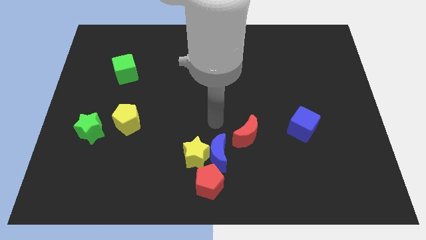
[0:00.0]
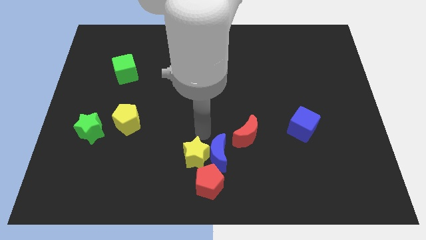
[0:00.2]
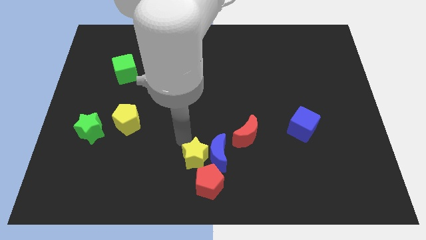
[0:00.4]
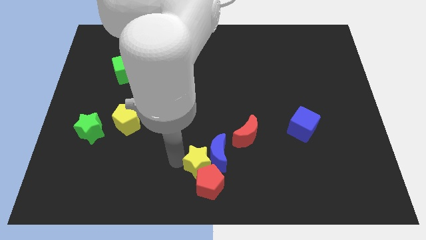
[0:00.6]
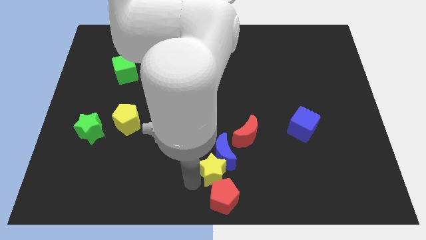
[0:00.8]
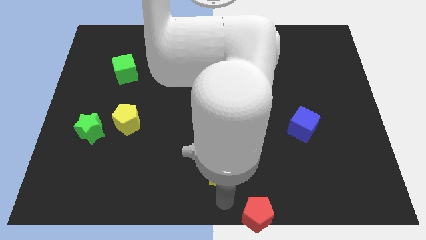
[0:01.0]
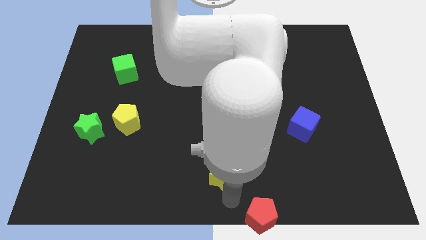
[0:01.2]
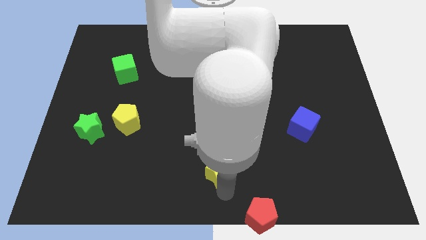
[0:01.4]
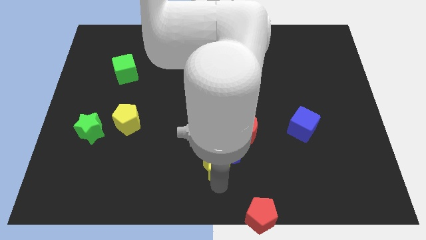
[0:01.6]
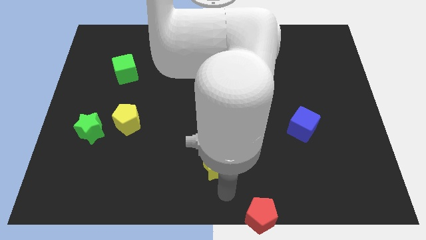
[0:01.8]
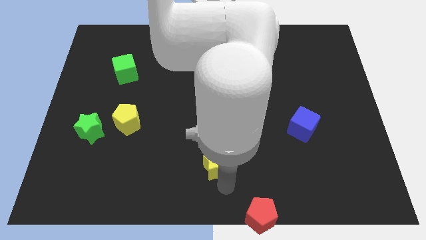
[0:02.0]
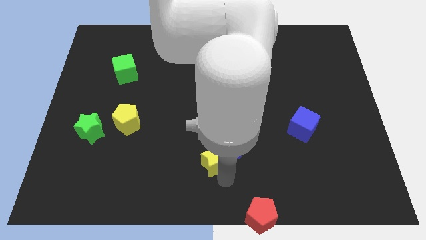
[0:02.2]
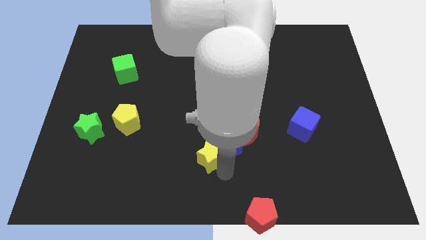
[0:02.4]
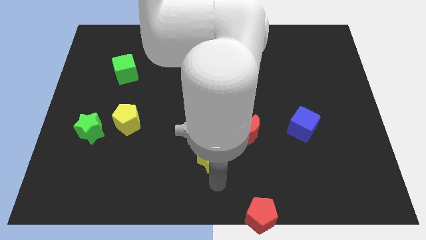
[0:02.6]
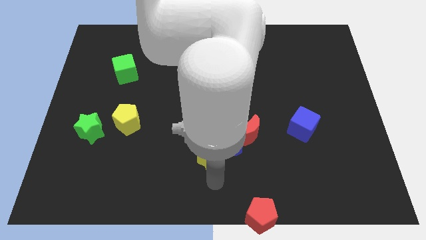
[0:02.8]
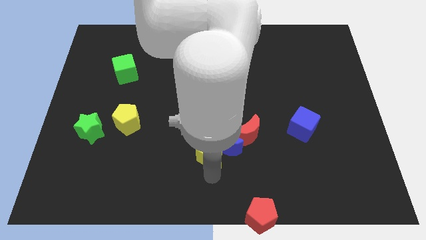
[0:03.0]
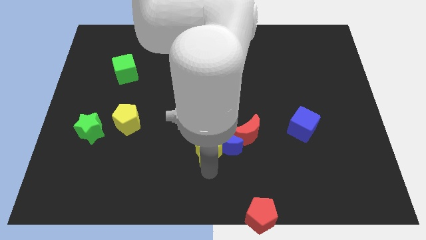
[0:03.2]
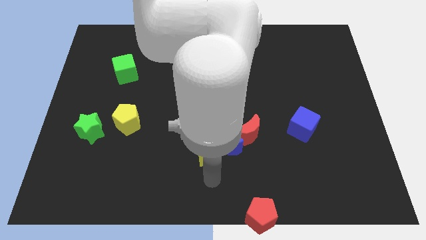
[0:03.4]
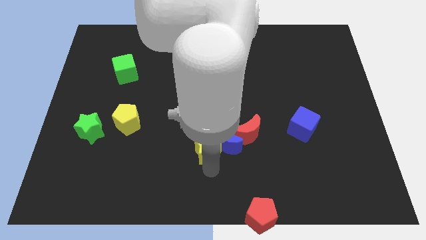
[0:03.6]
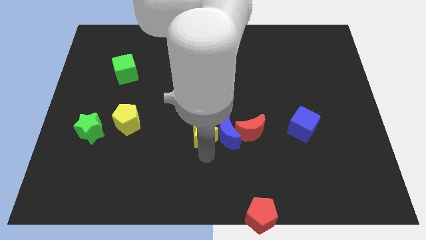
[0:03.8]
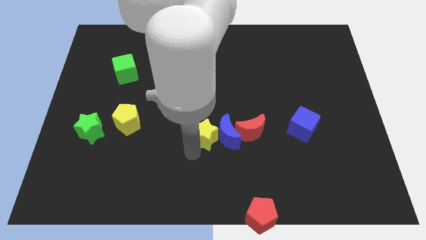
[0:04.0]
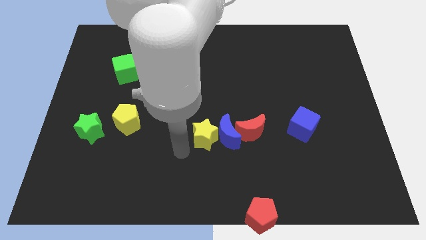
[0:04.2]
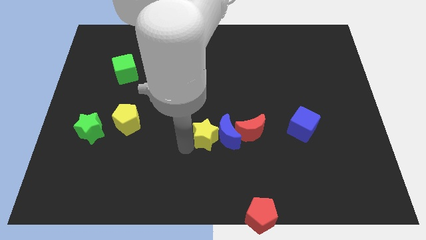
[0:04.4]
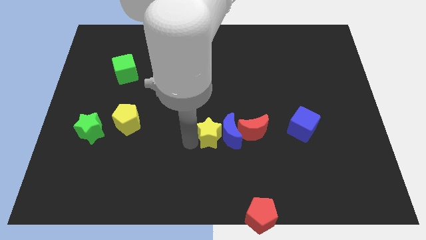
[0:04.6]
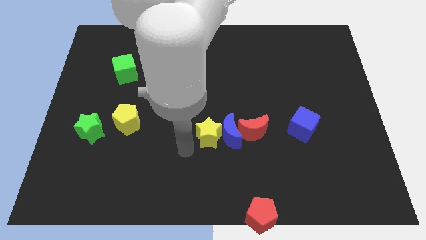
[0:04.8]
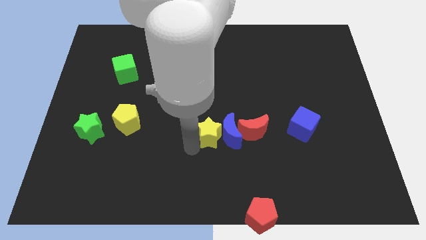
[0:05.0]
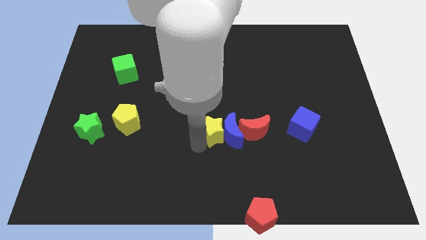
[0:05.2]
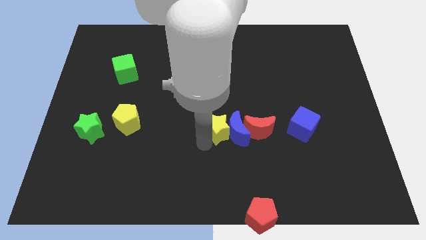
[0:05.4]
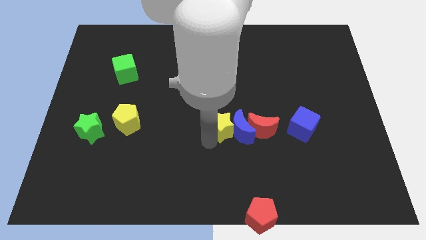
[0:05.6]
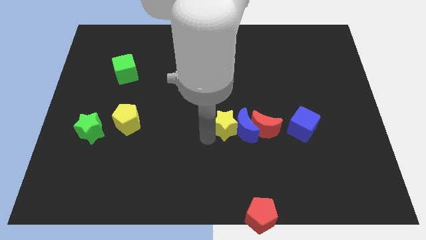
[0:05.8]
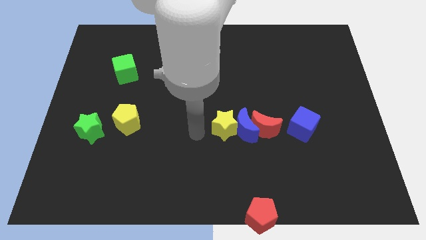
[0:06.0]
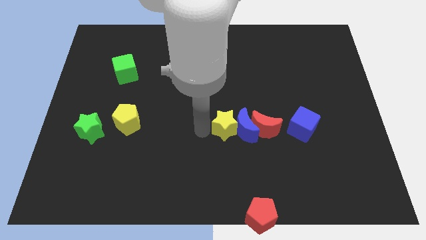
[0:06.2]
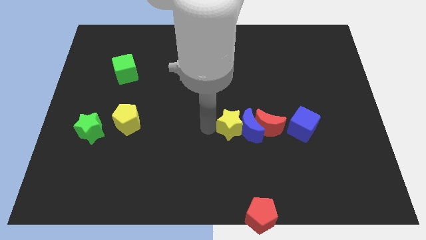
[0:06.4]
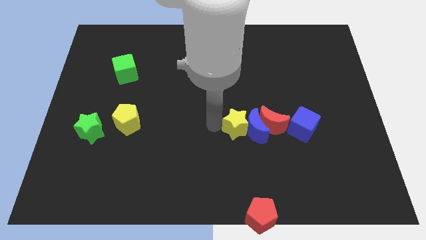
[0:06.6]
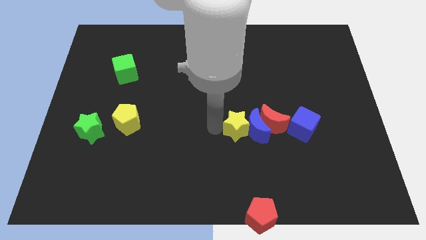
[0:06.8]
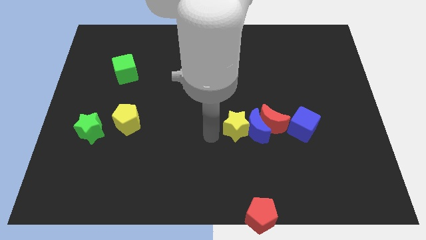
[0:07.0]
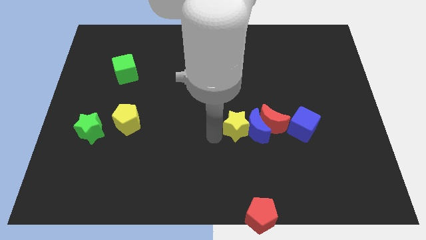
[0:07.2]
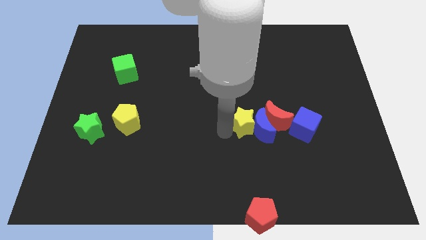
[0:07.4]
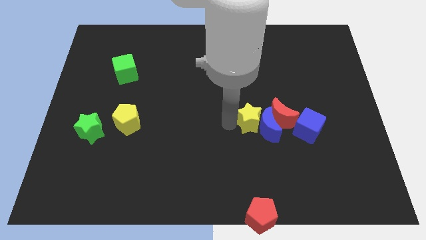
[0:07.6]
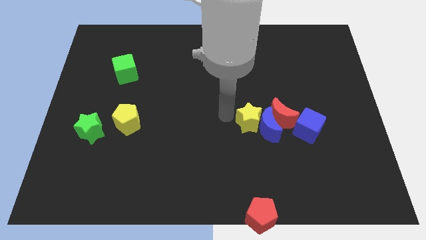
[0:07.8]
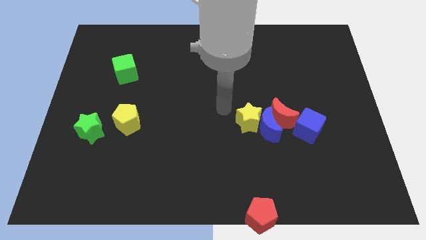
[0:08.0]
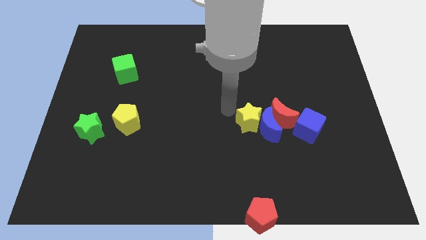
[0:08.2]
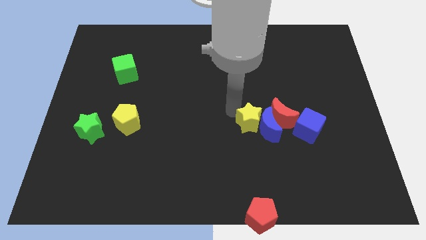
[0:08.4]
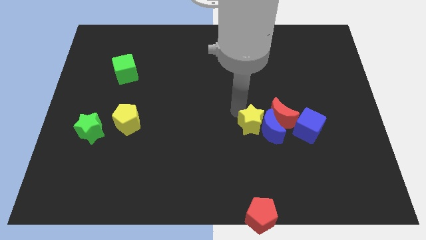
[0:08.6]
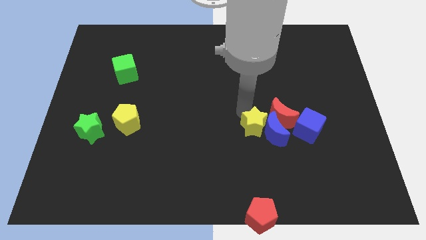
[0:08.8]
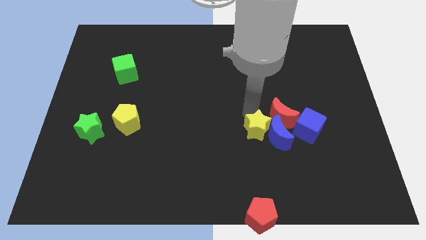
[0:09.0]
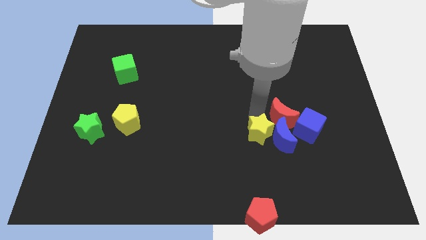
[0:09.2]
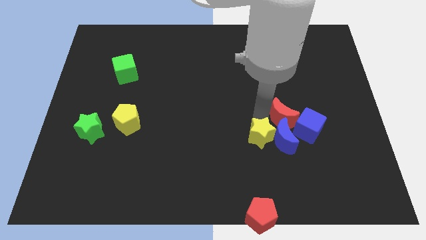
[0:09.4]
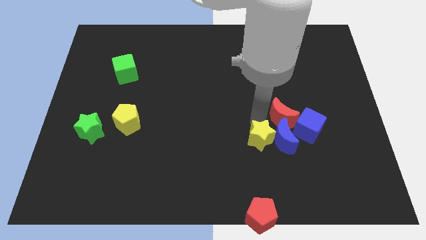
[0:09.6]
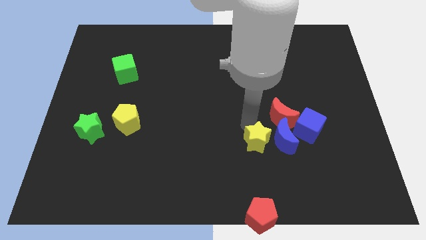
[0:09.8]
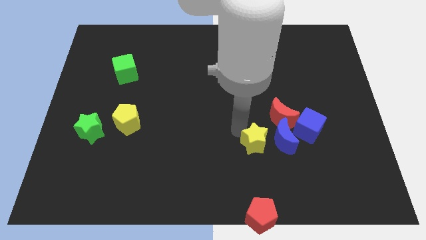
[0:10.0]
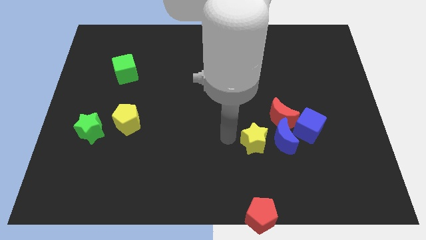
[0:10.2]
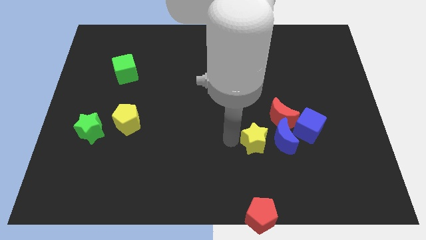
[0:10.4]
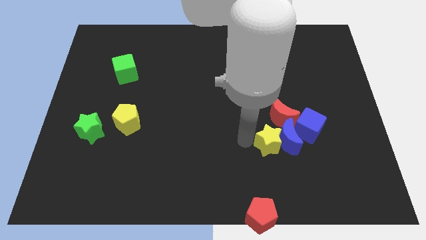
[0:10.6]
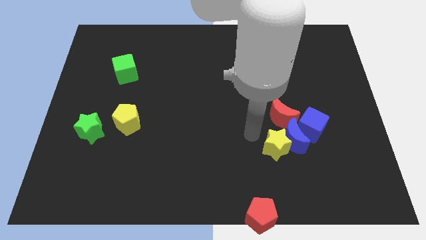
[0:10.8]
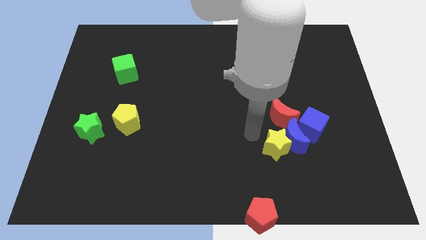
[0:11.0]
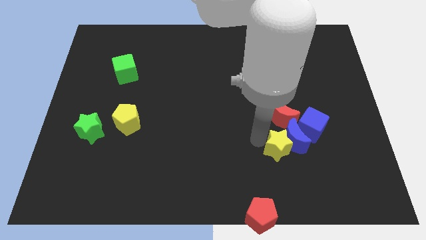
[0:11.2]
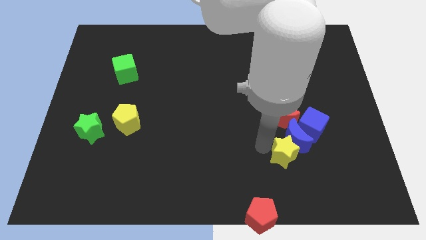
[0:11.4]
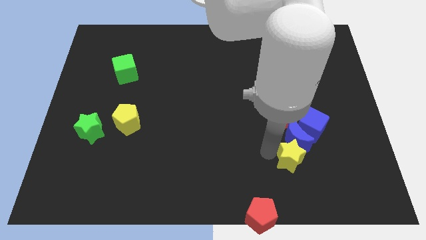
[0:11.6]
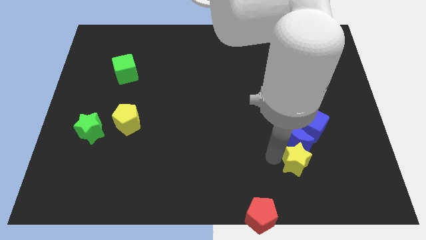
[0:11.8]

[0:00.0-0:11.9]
push the yellow star to the bottom of the blue cube

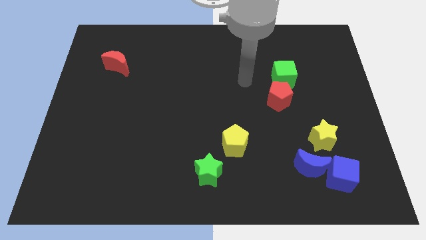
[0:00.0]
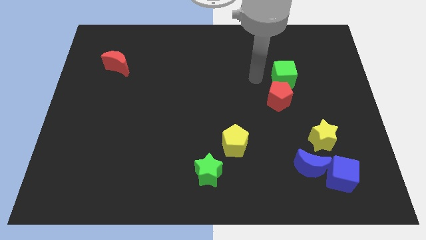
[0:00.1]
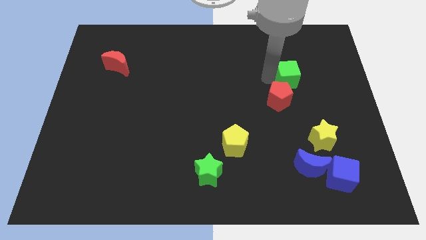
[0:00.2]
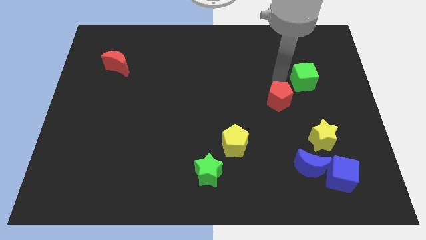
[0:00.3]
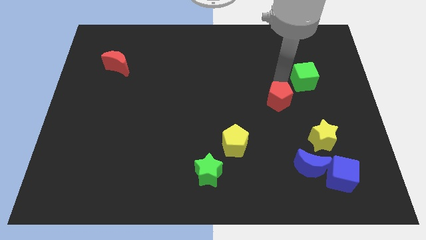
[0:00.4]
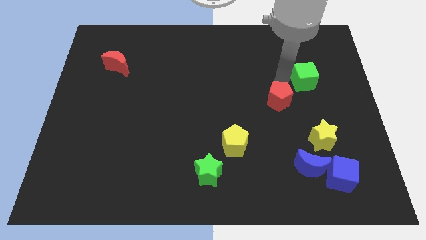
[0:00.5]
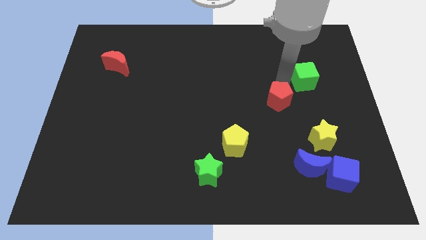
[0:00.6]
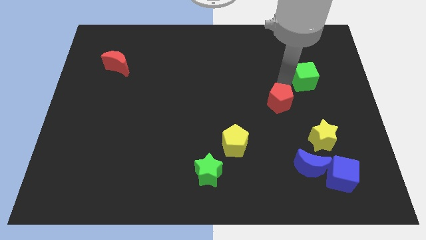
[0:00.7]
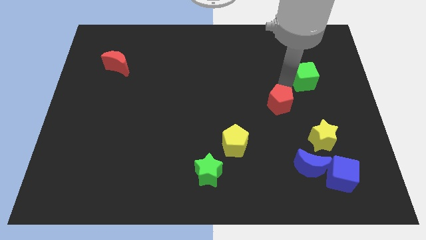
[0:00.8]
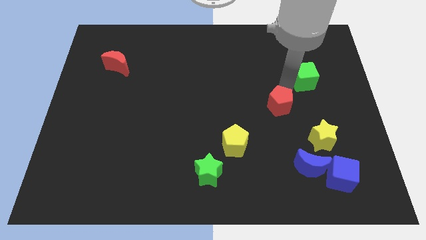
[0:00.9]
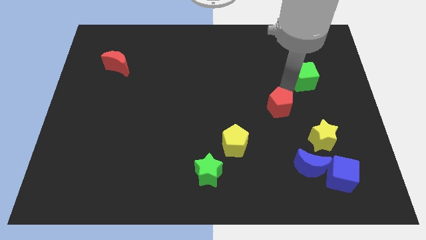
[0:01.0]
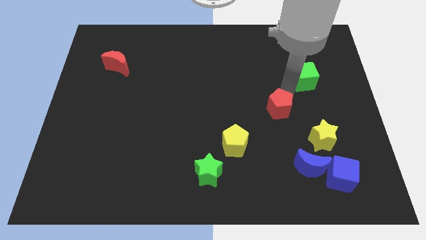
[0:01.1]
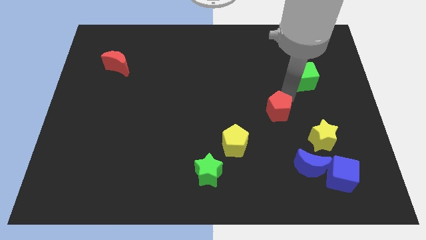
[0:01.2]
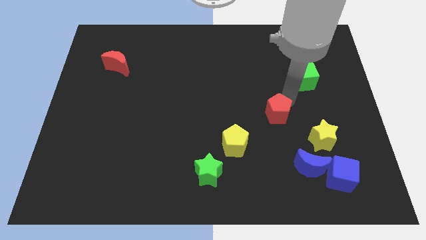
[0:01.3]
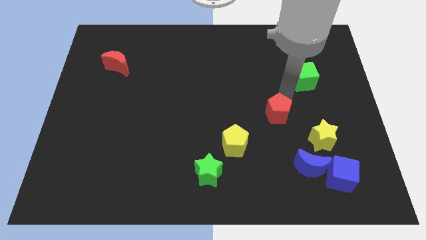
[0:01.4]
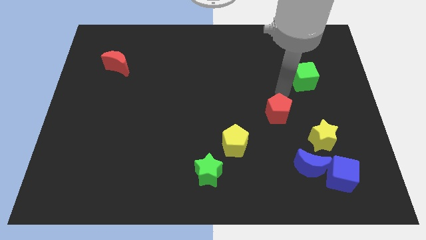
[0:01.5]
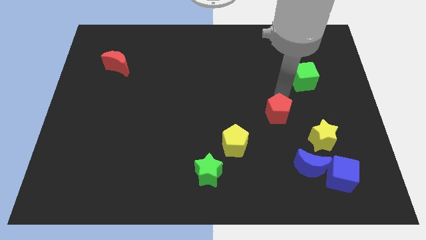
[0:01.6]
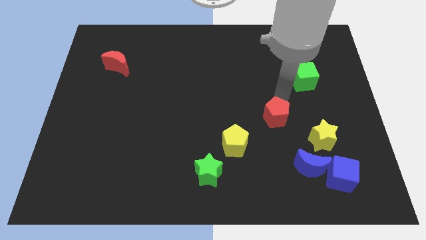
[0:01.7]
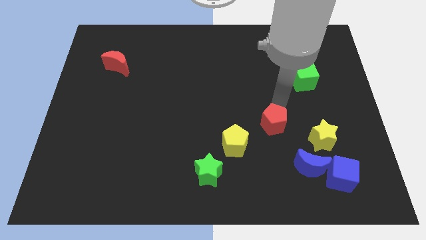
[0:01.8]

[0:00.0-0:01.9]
slide the red pentagon just left of the yellow star
